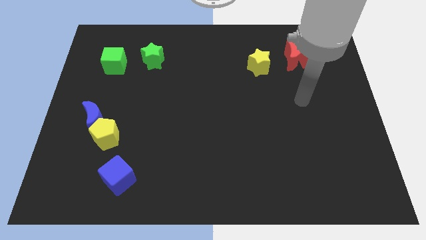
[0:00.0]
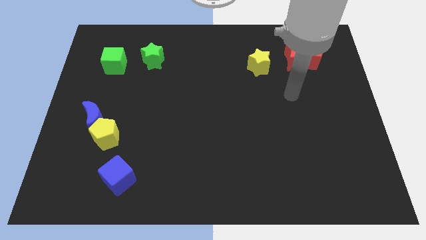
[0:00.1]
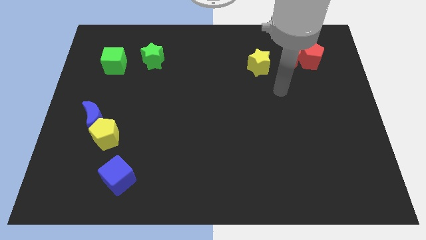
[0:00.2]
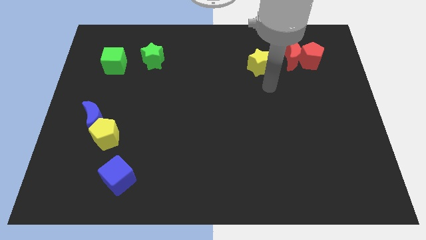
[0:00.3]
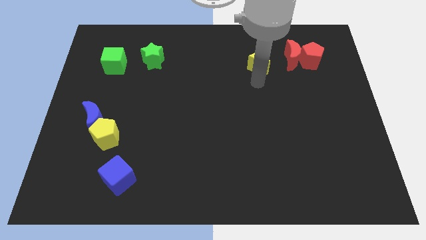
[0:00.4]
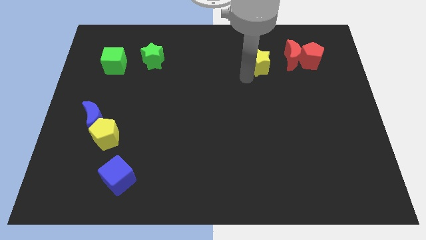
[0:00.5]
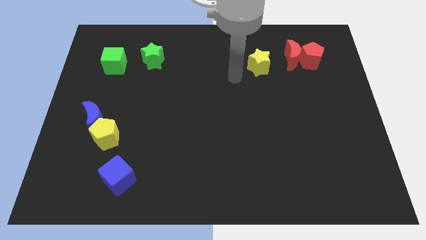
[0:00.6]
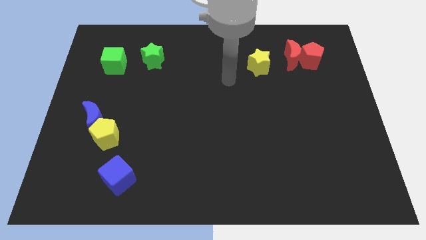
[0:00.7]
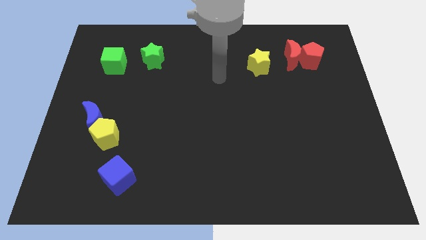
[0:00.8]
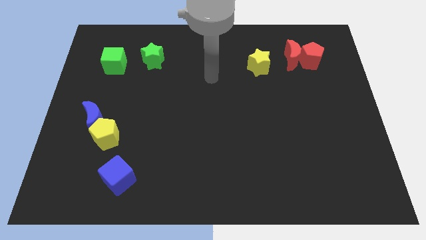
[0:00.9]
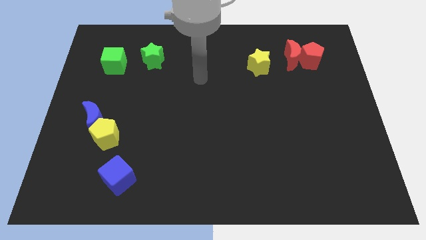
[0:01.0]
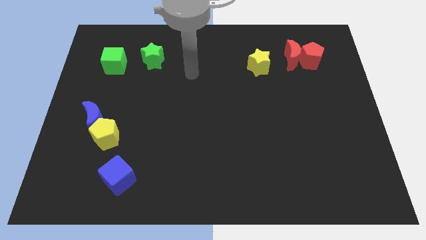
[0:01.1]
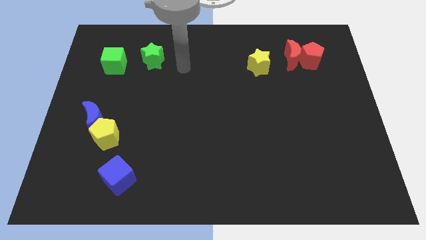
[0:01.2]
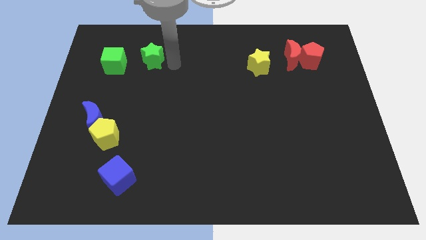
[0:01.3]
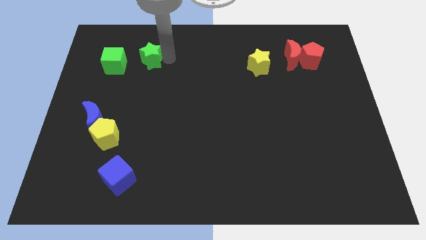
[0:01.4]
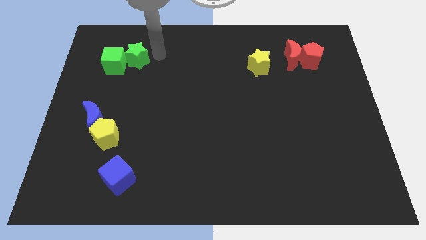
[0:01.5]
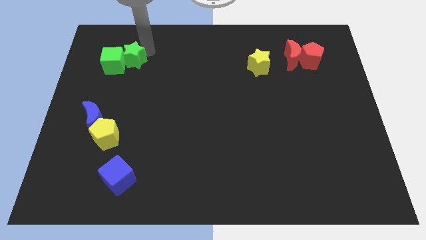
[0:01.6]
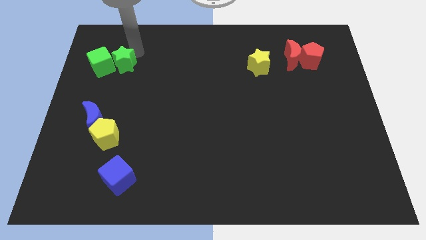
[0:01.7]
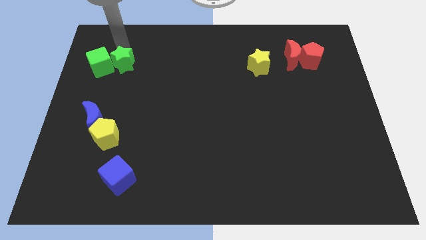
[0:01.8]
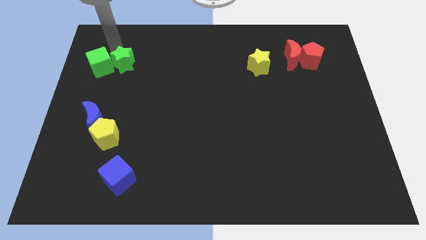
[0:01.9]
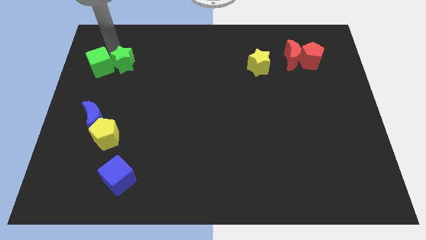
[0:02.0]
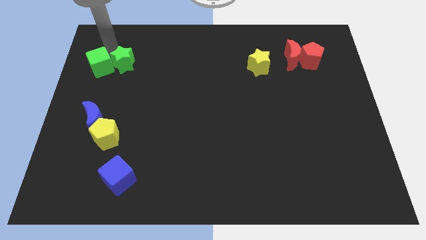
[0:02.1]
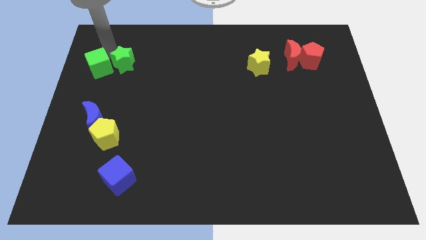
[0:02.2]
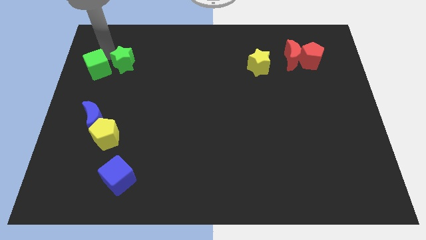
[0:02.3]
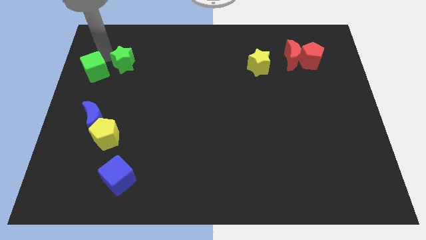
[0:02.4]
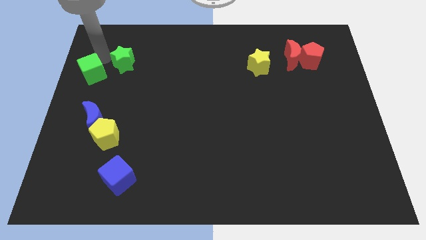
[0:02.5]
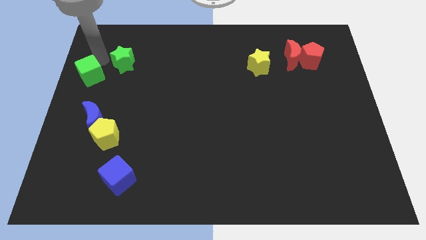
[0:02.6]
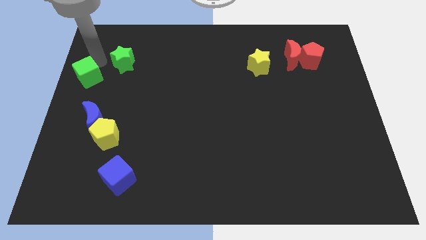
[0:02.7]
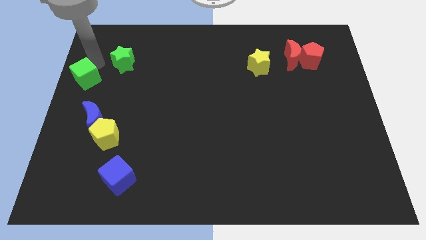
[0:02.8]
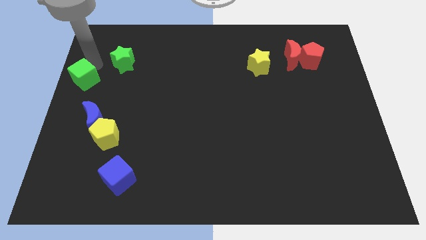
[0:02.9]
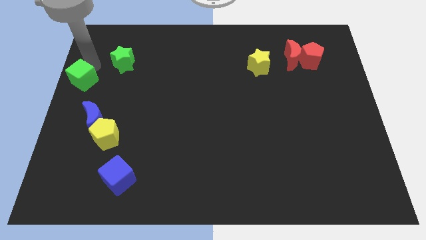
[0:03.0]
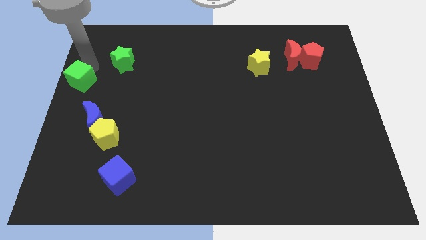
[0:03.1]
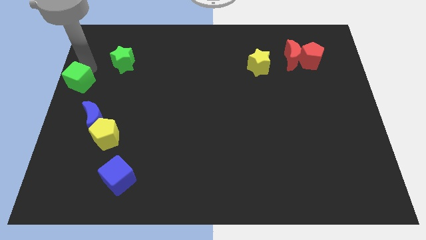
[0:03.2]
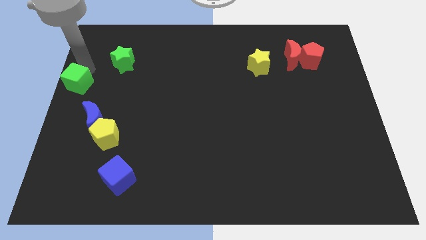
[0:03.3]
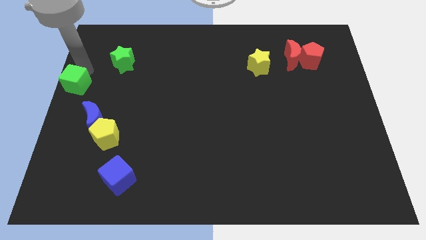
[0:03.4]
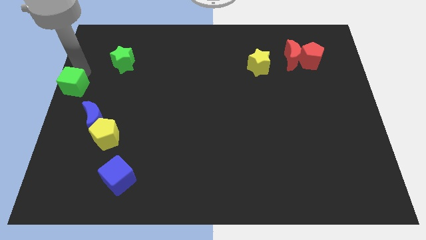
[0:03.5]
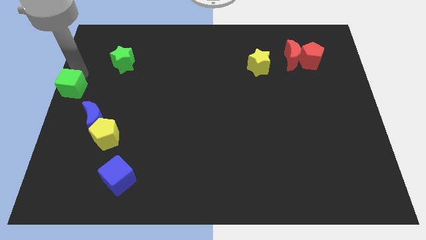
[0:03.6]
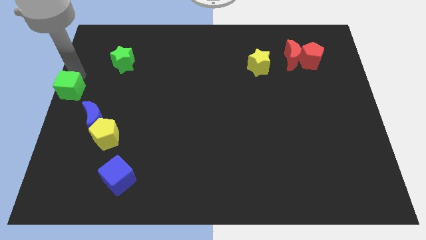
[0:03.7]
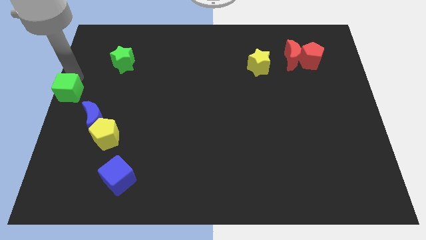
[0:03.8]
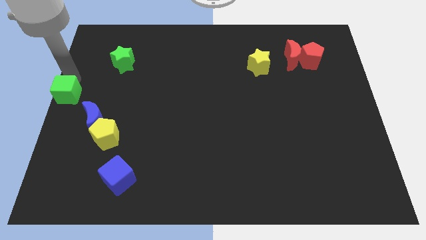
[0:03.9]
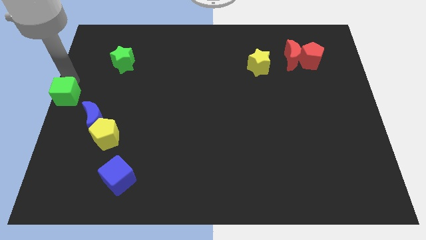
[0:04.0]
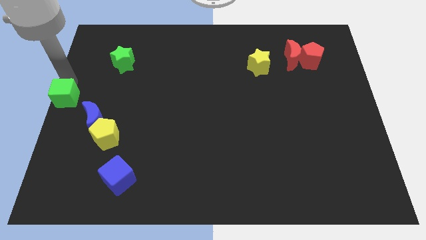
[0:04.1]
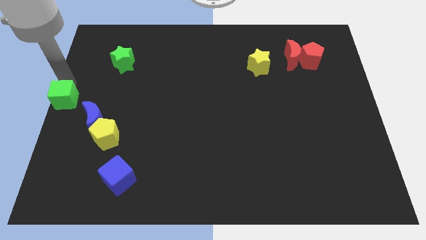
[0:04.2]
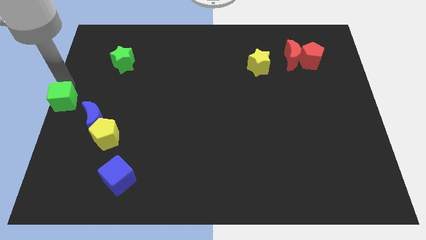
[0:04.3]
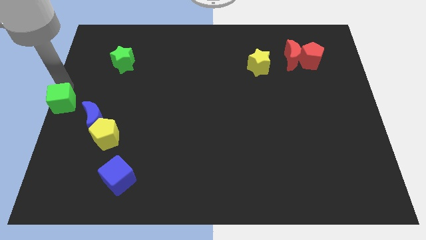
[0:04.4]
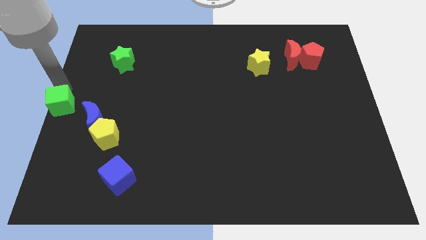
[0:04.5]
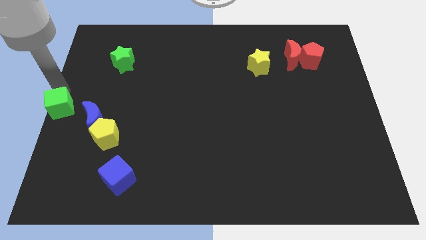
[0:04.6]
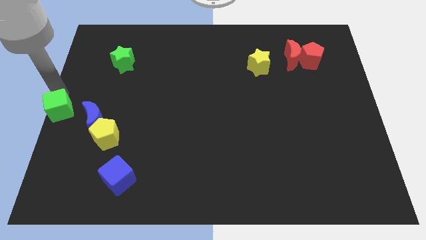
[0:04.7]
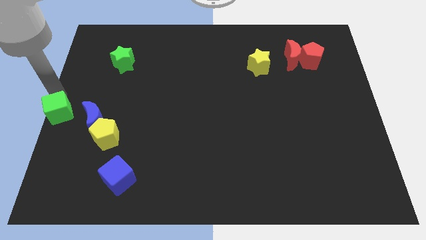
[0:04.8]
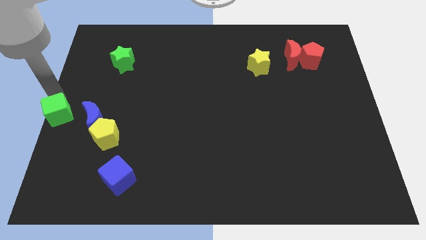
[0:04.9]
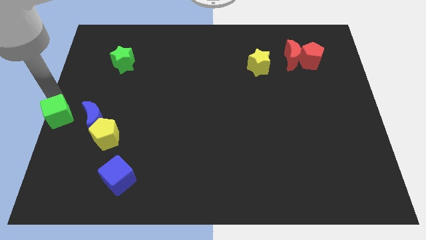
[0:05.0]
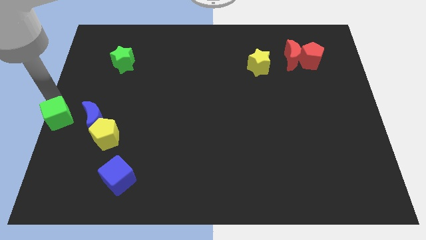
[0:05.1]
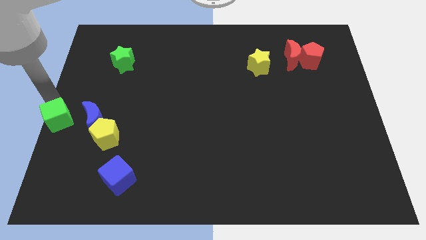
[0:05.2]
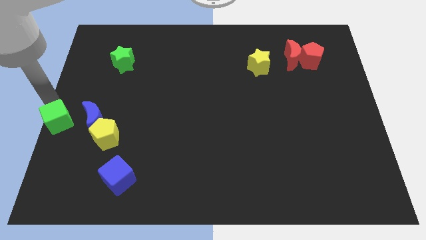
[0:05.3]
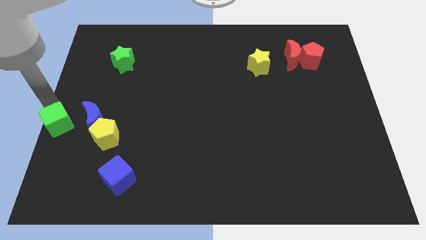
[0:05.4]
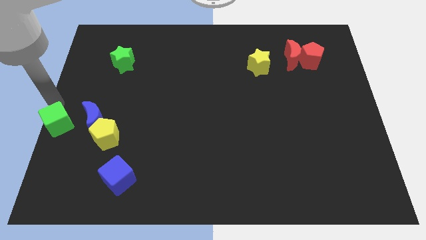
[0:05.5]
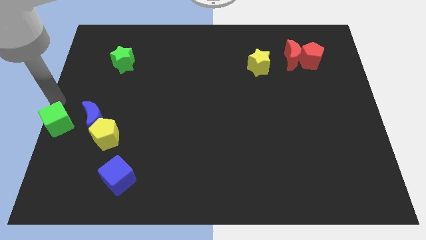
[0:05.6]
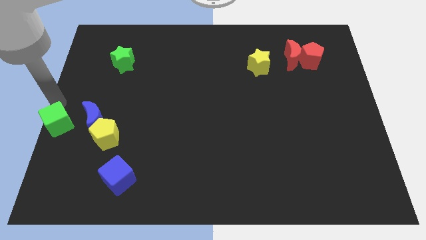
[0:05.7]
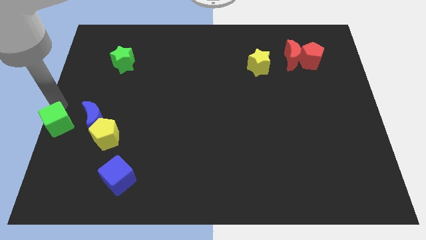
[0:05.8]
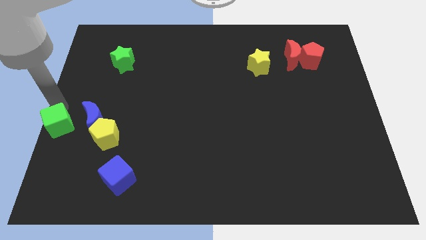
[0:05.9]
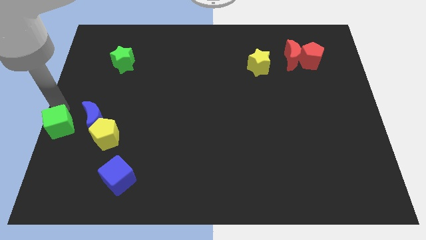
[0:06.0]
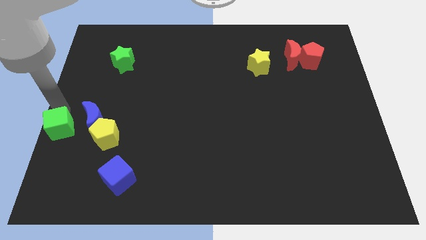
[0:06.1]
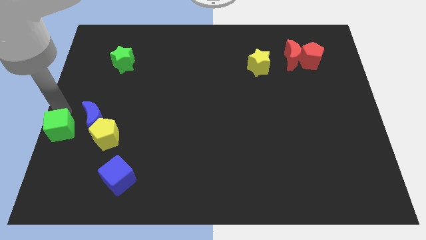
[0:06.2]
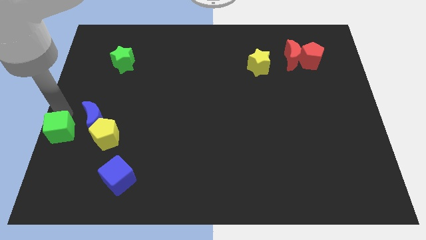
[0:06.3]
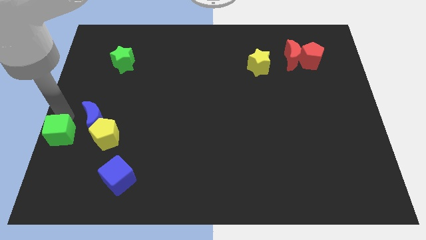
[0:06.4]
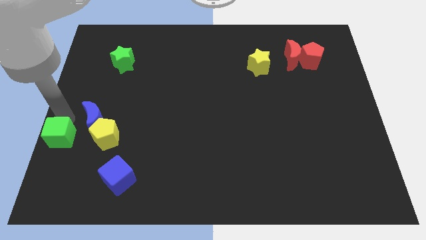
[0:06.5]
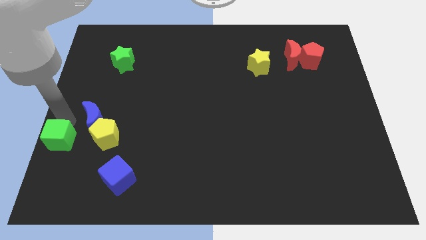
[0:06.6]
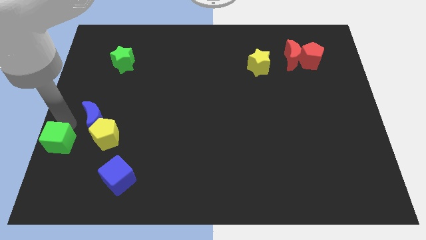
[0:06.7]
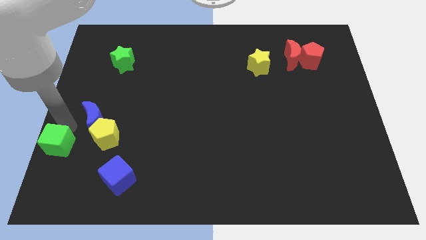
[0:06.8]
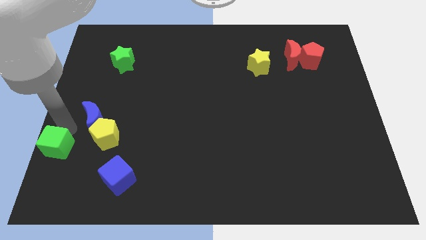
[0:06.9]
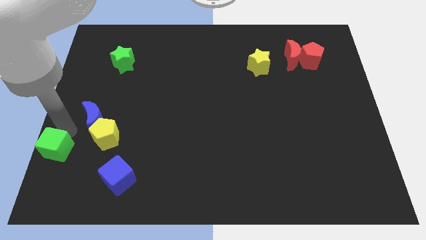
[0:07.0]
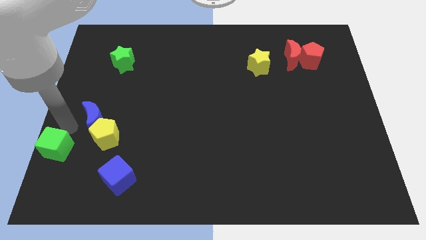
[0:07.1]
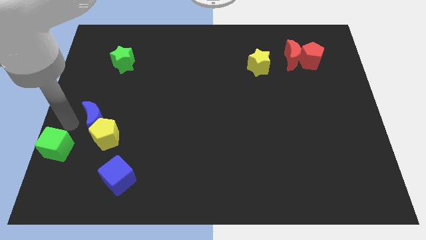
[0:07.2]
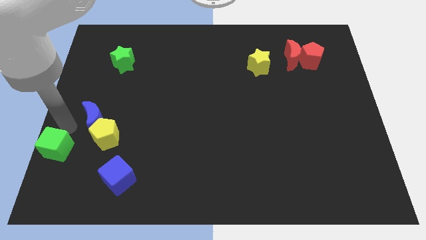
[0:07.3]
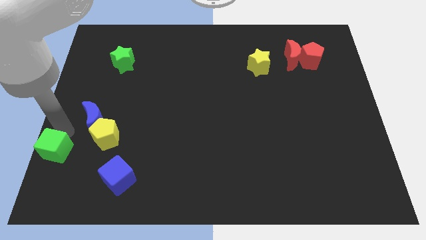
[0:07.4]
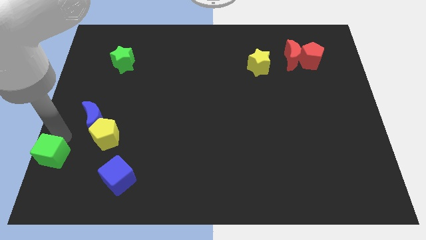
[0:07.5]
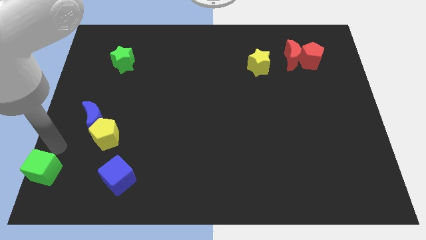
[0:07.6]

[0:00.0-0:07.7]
push the green cube to the bottom left of the board
